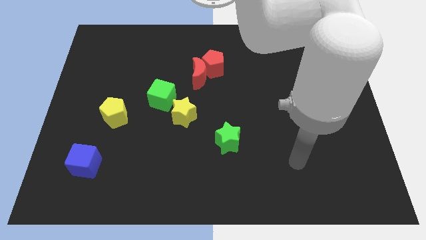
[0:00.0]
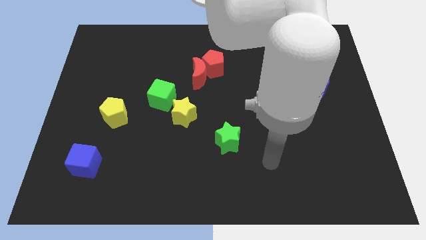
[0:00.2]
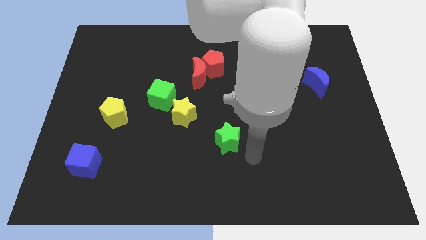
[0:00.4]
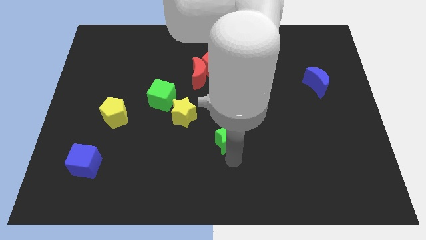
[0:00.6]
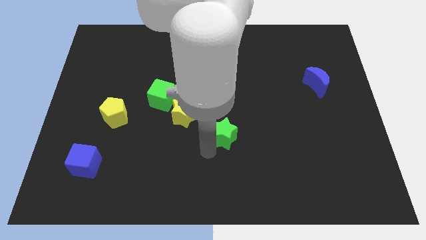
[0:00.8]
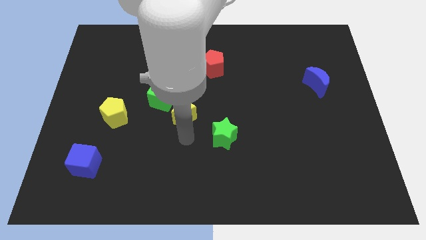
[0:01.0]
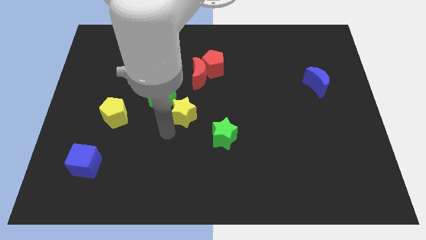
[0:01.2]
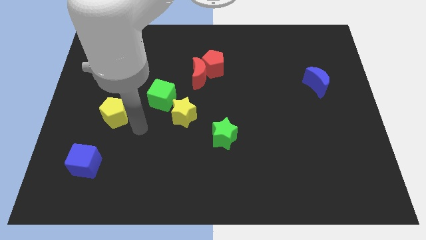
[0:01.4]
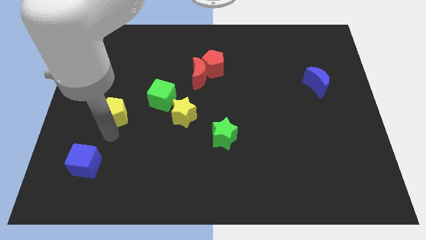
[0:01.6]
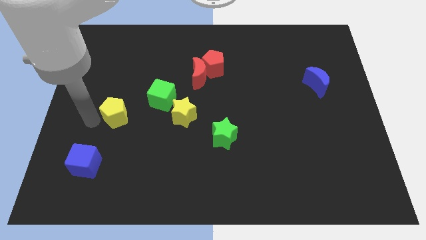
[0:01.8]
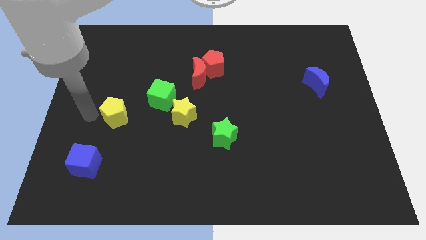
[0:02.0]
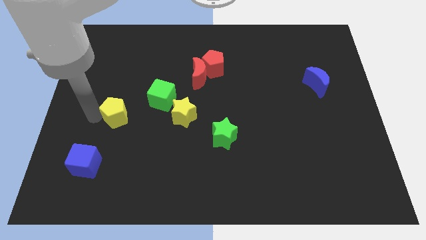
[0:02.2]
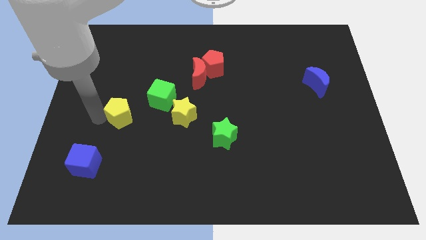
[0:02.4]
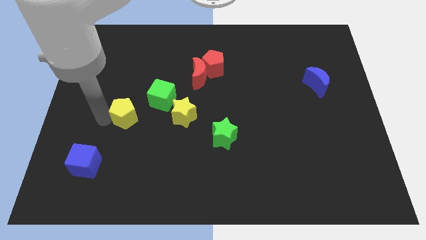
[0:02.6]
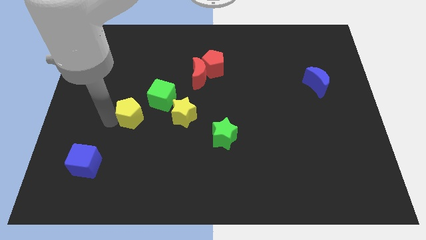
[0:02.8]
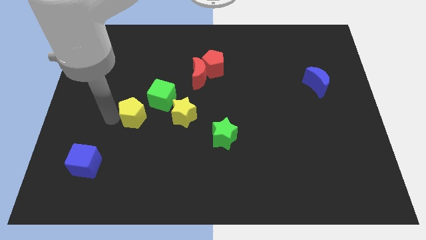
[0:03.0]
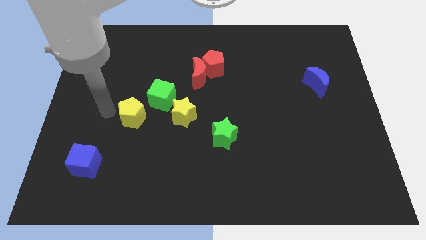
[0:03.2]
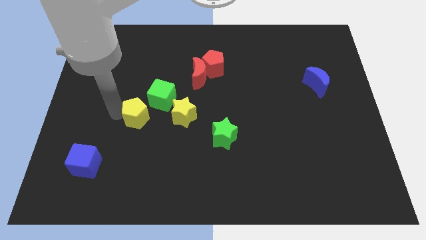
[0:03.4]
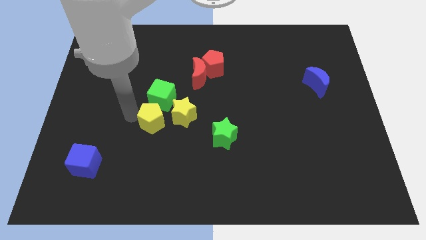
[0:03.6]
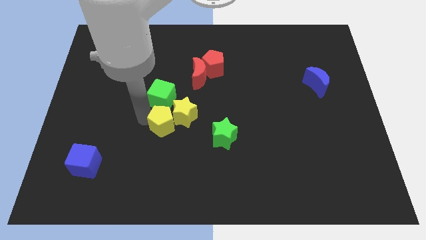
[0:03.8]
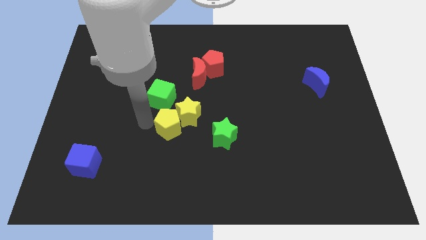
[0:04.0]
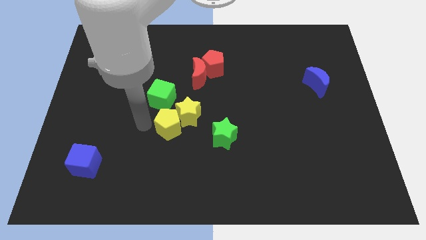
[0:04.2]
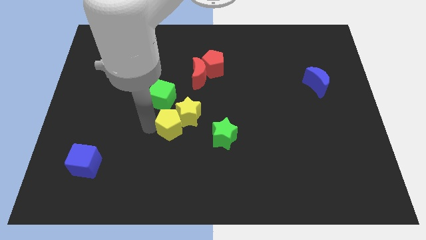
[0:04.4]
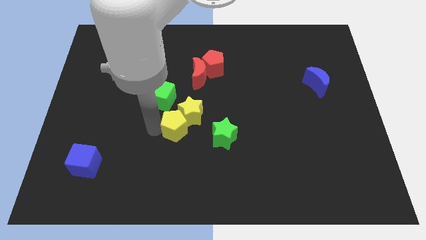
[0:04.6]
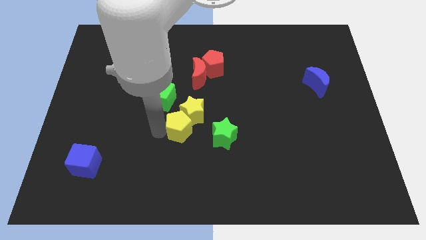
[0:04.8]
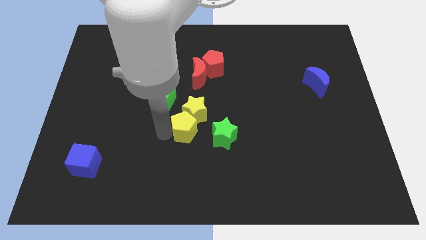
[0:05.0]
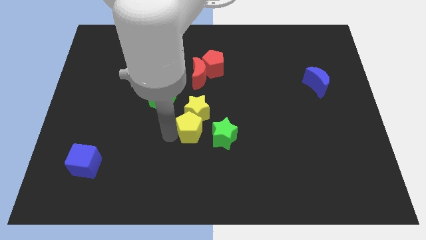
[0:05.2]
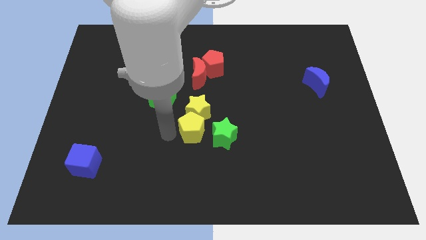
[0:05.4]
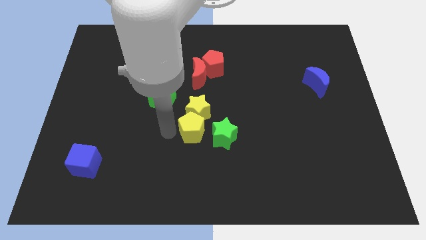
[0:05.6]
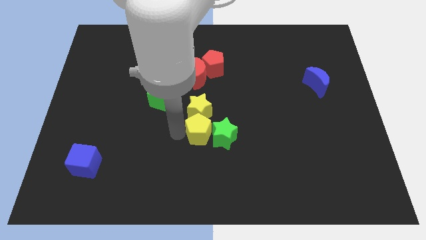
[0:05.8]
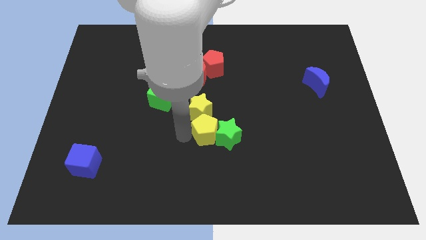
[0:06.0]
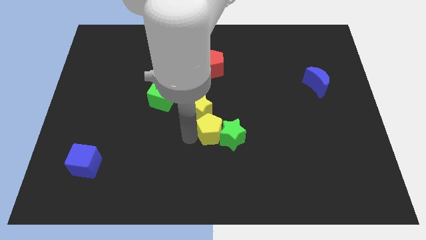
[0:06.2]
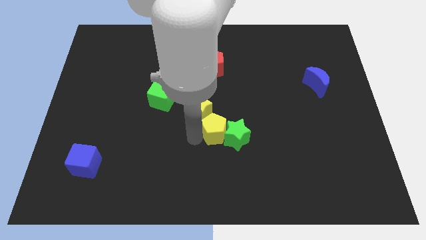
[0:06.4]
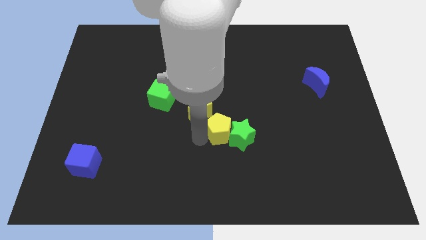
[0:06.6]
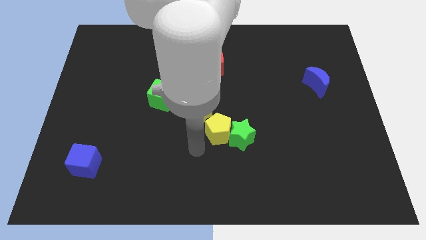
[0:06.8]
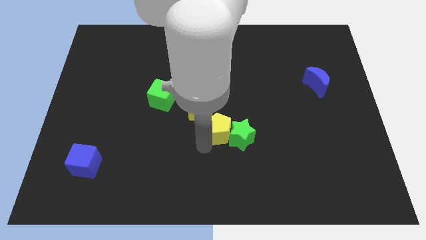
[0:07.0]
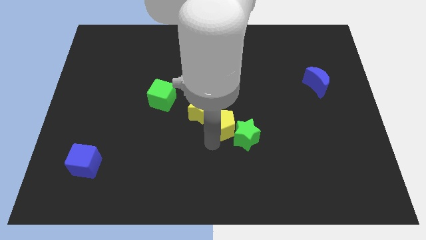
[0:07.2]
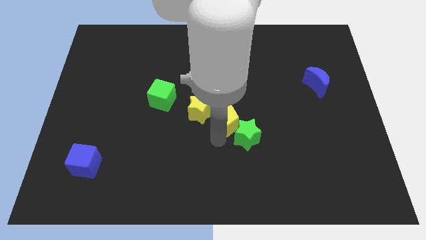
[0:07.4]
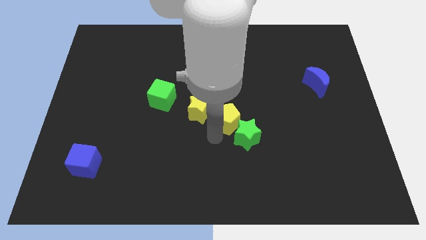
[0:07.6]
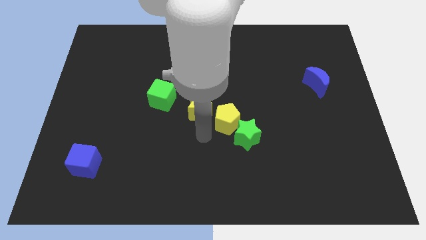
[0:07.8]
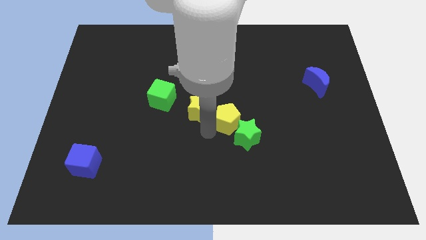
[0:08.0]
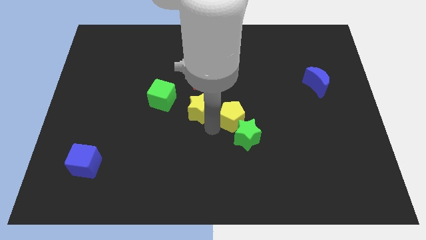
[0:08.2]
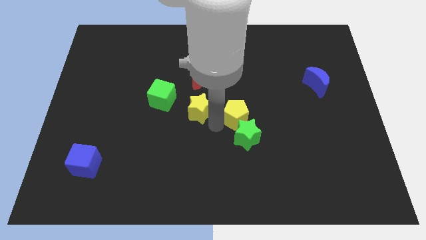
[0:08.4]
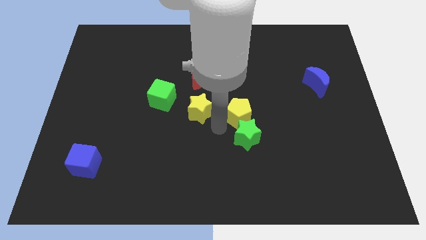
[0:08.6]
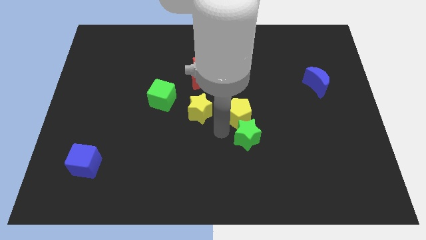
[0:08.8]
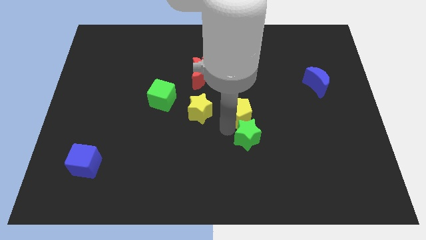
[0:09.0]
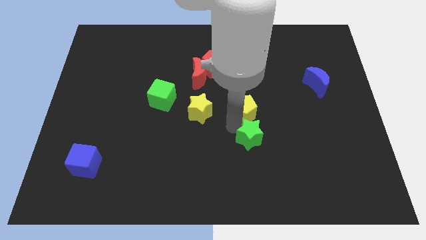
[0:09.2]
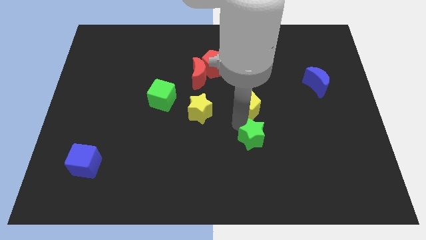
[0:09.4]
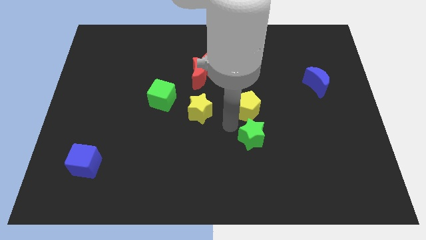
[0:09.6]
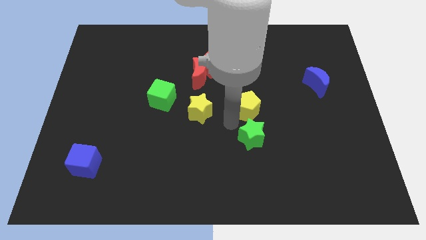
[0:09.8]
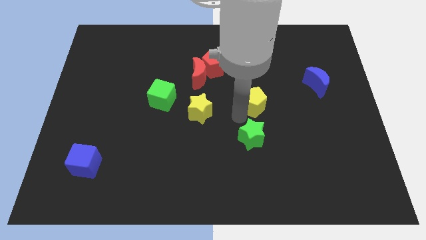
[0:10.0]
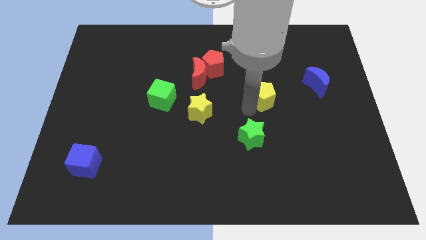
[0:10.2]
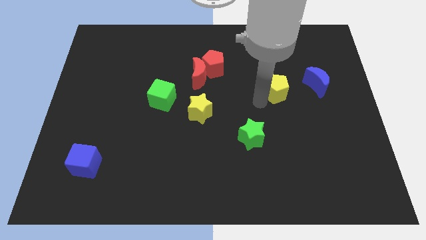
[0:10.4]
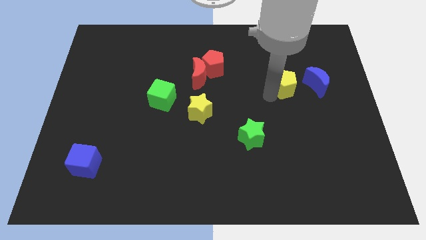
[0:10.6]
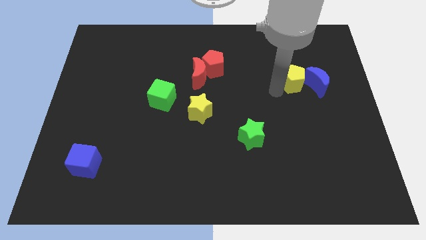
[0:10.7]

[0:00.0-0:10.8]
move the yellow pentagon towards the blue moon

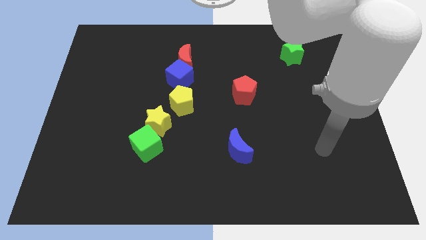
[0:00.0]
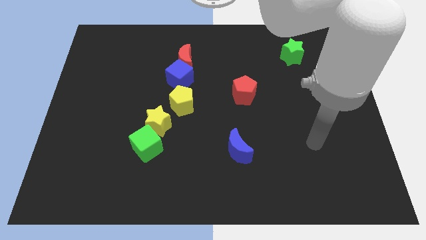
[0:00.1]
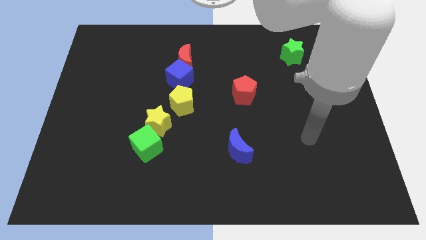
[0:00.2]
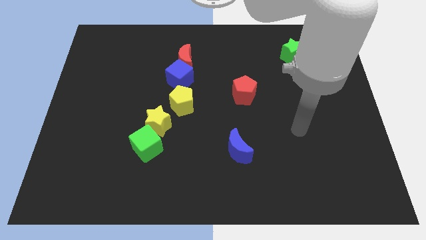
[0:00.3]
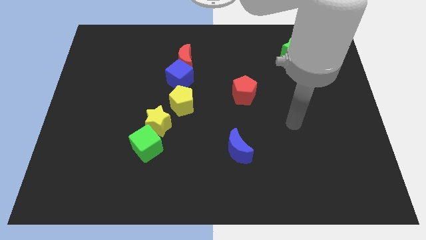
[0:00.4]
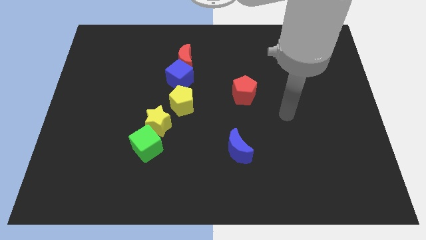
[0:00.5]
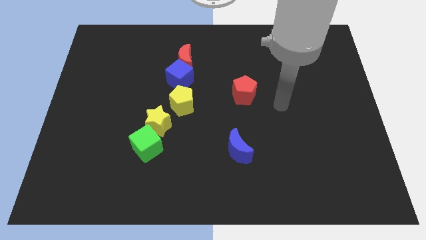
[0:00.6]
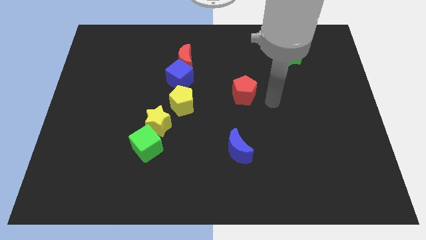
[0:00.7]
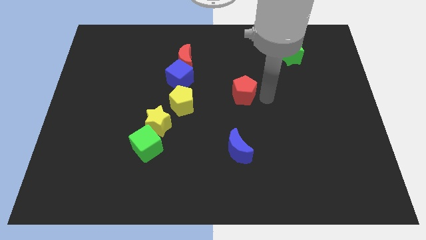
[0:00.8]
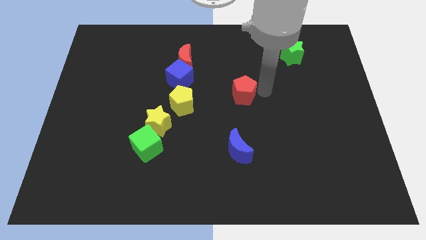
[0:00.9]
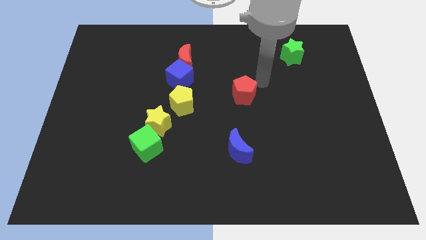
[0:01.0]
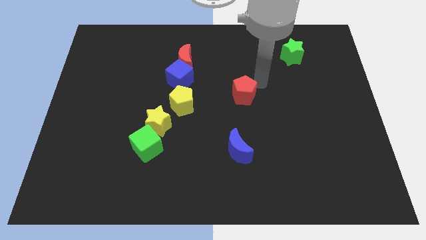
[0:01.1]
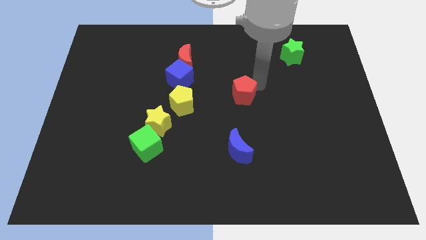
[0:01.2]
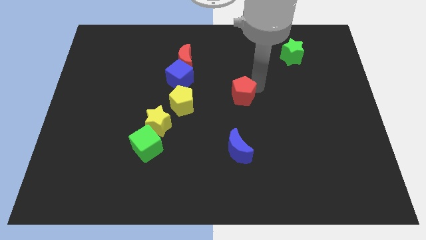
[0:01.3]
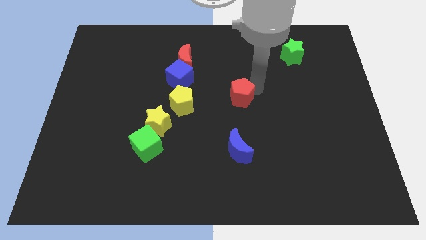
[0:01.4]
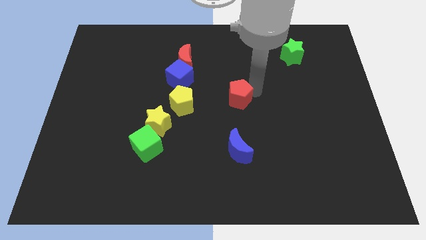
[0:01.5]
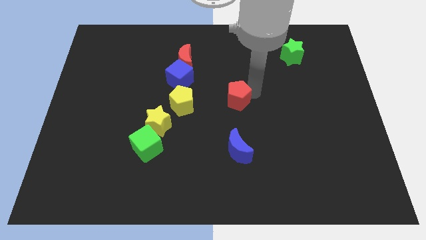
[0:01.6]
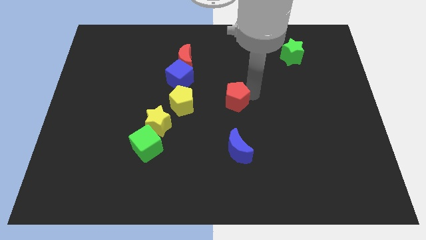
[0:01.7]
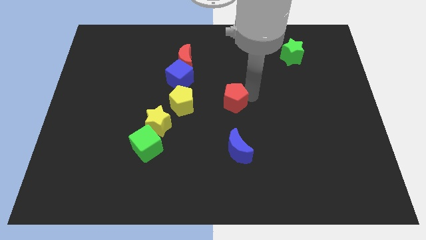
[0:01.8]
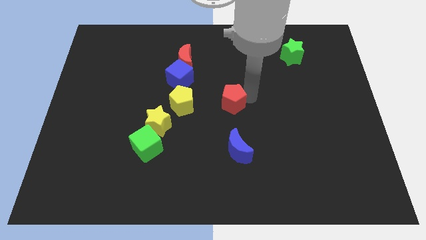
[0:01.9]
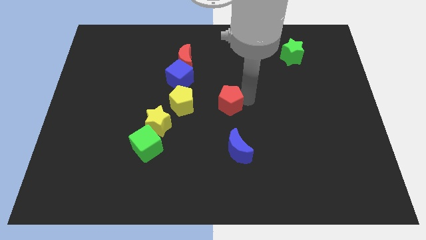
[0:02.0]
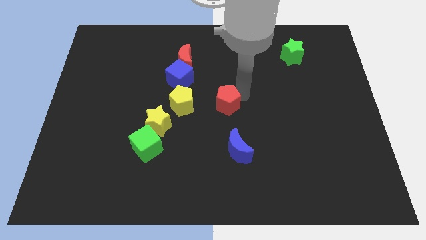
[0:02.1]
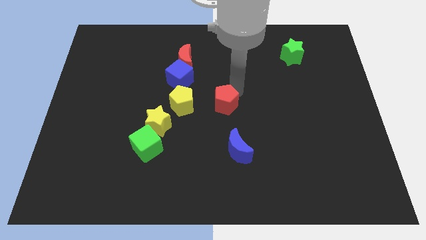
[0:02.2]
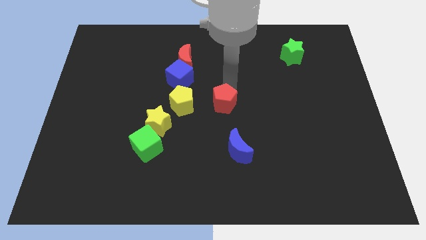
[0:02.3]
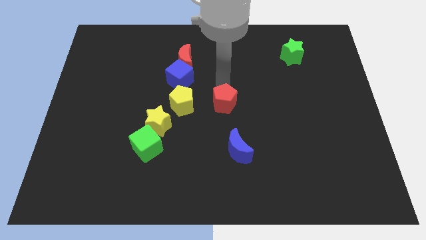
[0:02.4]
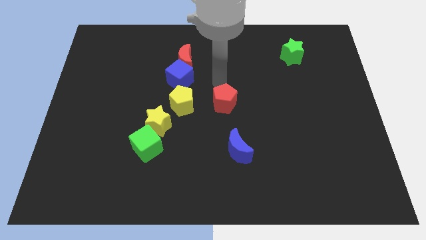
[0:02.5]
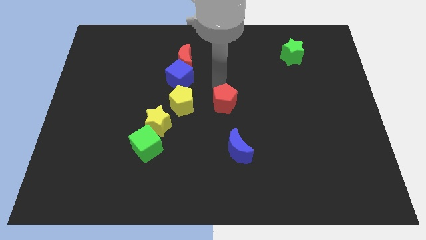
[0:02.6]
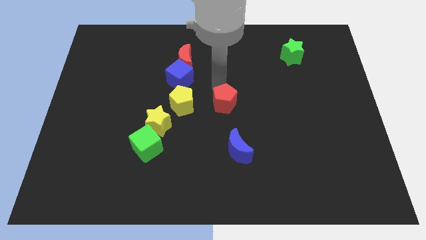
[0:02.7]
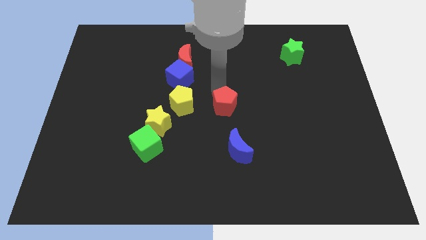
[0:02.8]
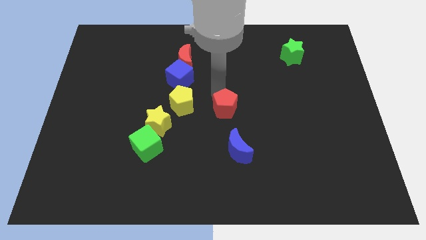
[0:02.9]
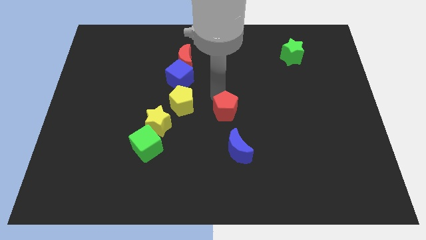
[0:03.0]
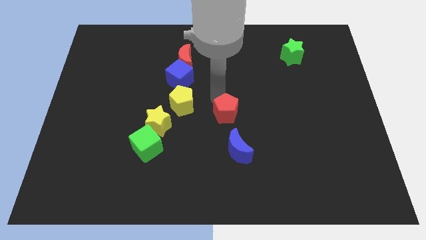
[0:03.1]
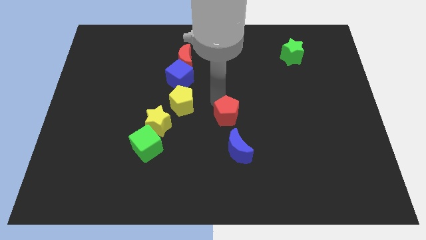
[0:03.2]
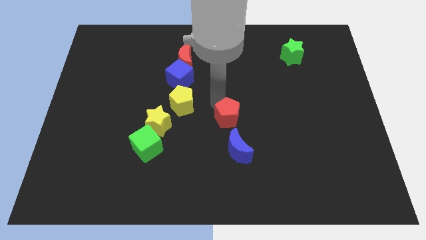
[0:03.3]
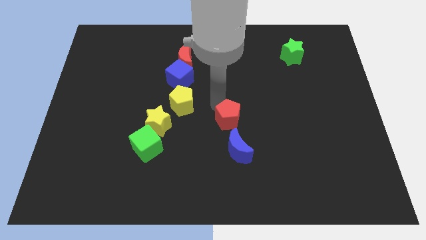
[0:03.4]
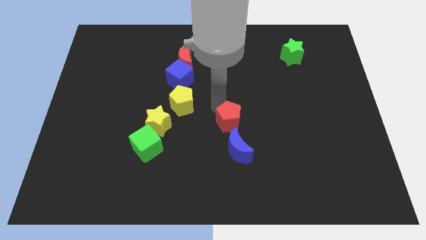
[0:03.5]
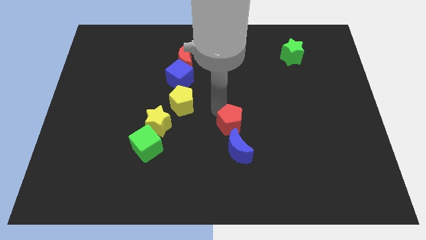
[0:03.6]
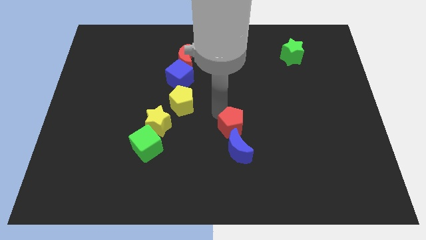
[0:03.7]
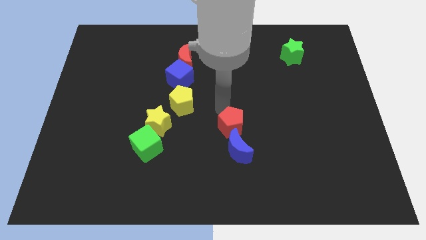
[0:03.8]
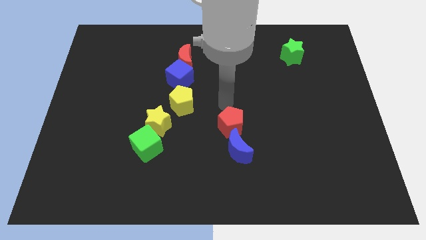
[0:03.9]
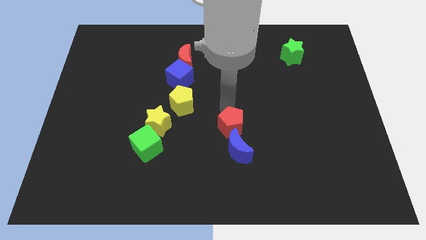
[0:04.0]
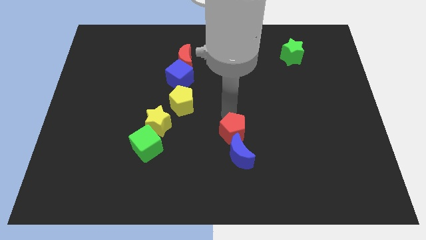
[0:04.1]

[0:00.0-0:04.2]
slide the red pentagon next to the blue moon
